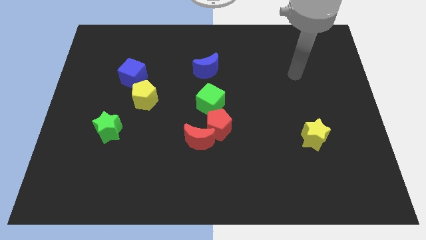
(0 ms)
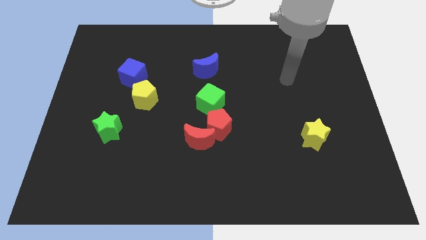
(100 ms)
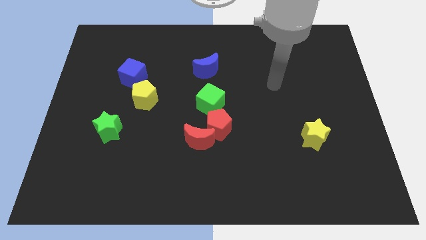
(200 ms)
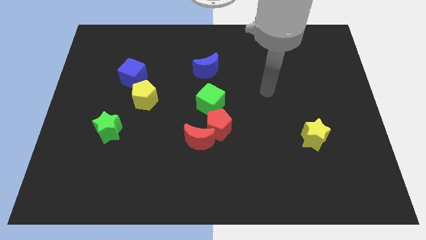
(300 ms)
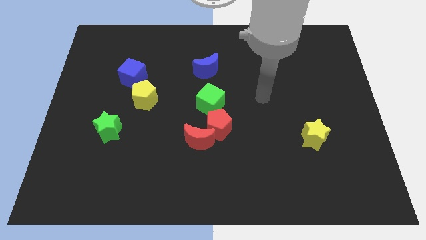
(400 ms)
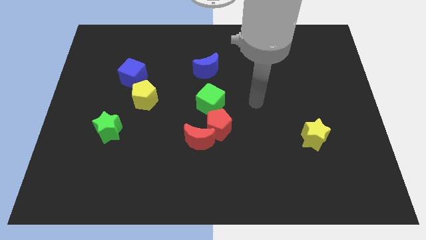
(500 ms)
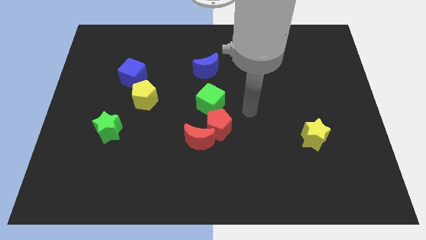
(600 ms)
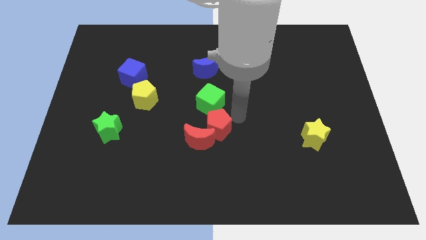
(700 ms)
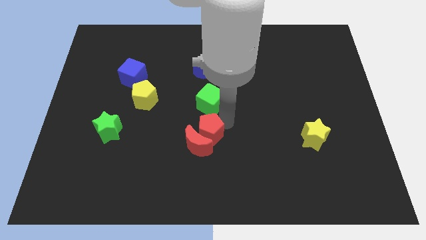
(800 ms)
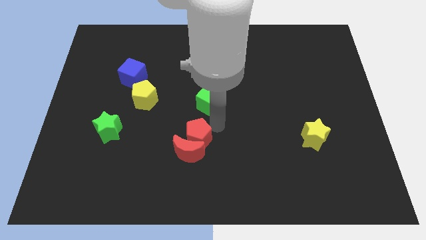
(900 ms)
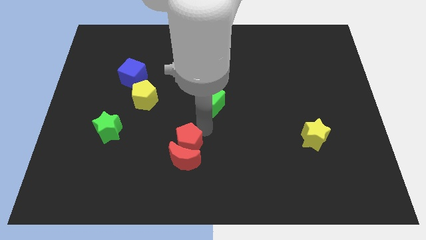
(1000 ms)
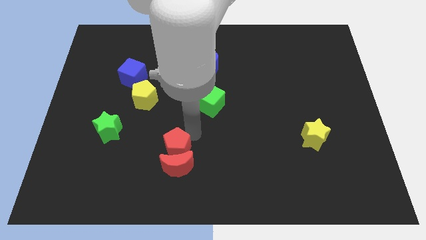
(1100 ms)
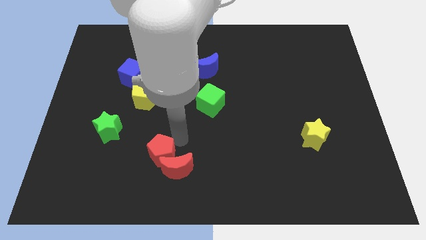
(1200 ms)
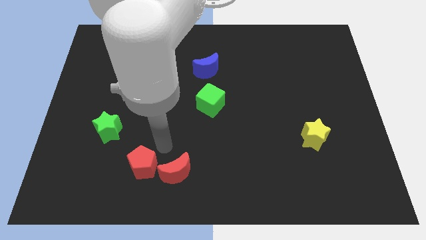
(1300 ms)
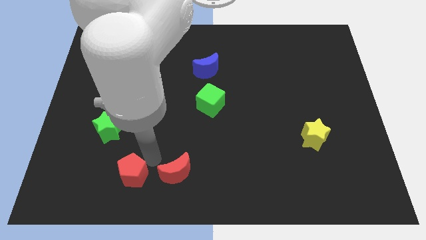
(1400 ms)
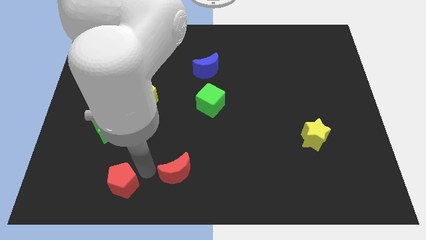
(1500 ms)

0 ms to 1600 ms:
separate the red moon from the red pentagon

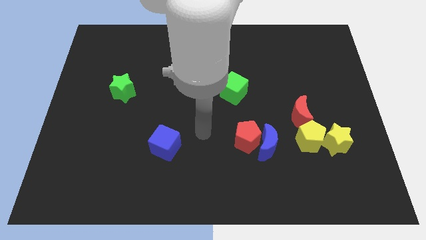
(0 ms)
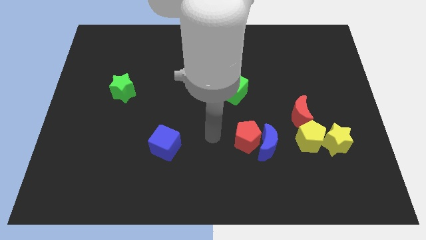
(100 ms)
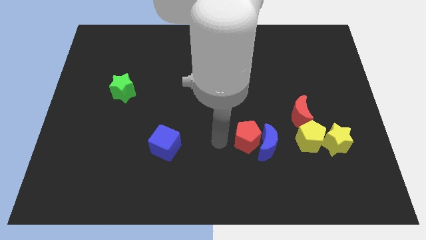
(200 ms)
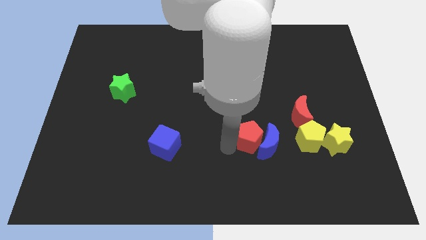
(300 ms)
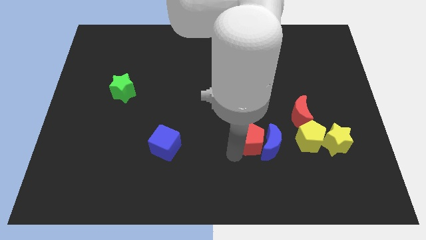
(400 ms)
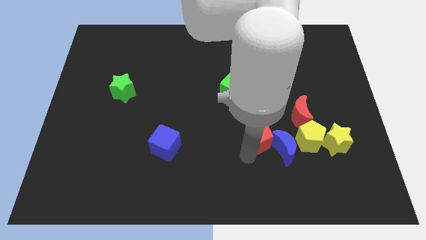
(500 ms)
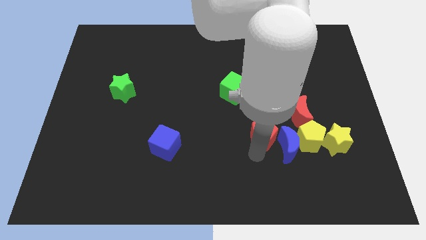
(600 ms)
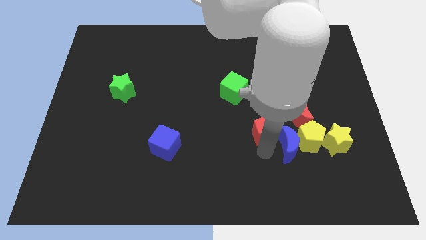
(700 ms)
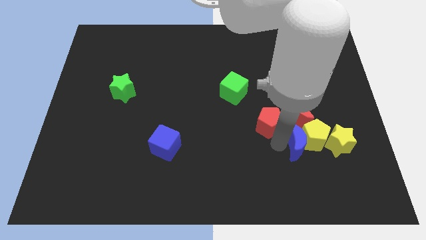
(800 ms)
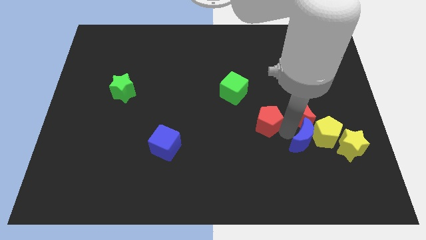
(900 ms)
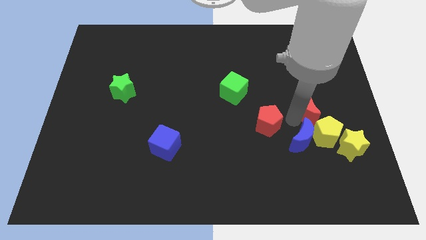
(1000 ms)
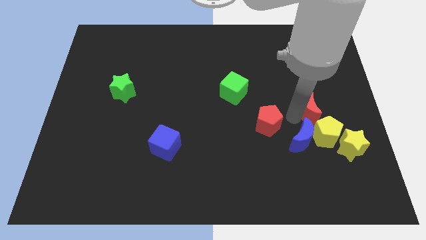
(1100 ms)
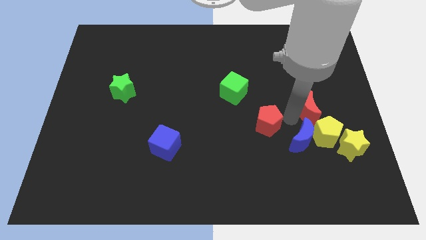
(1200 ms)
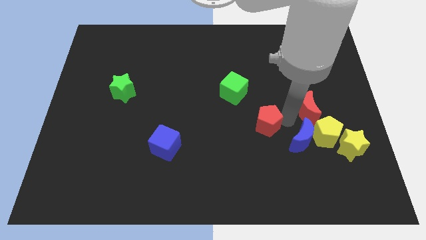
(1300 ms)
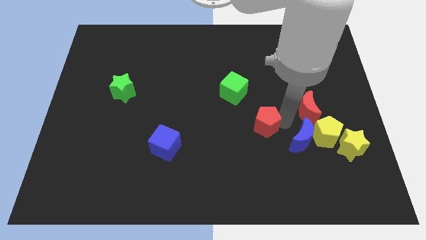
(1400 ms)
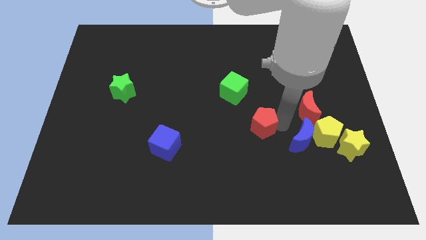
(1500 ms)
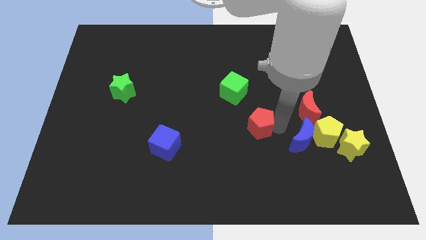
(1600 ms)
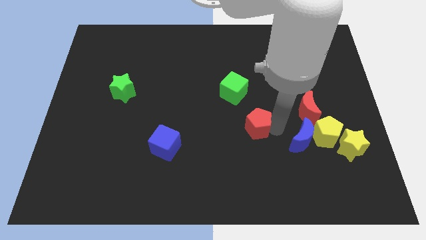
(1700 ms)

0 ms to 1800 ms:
separate the red pentagon from the blue moon

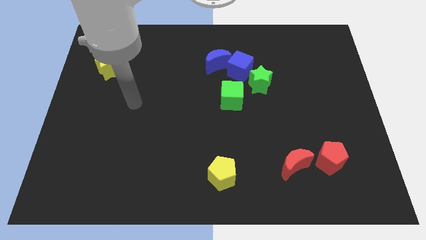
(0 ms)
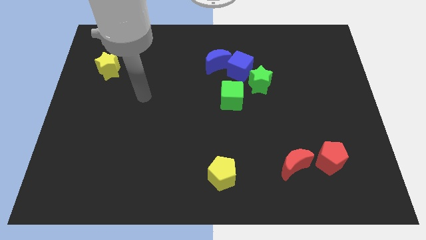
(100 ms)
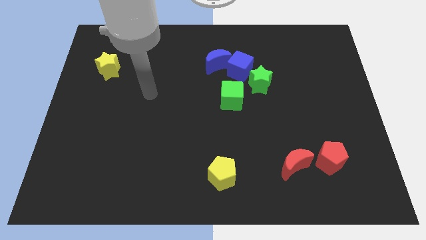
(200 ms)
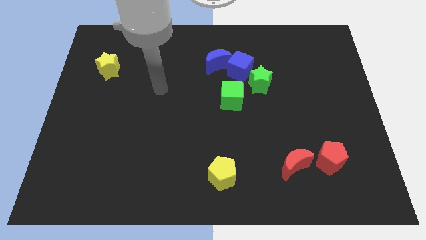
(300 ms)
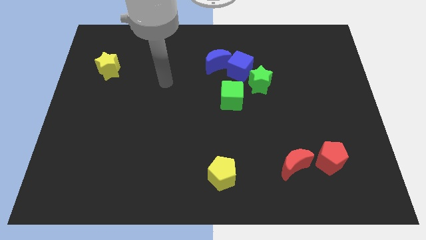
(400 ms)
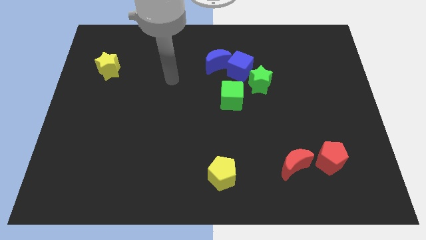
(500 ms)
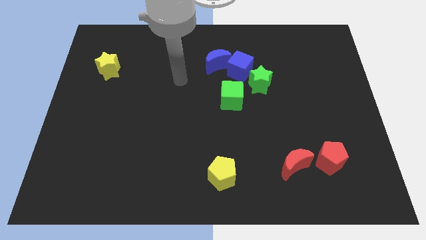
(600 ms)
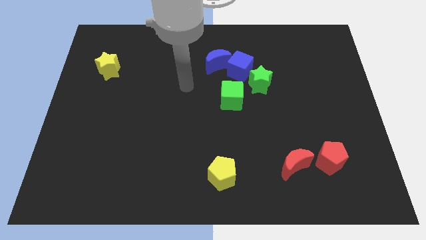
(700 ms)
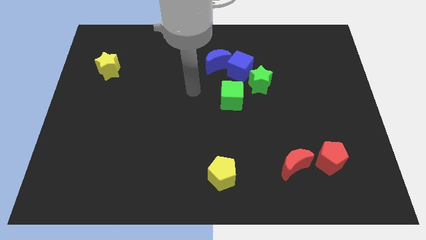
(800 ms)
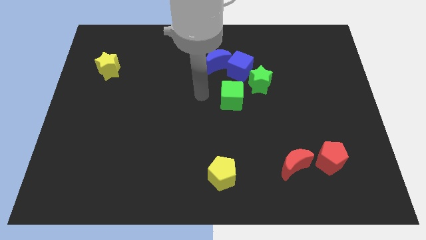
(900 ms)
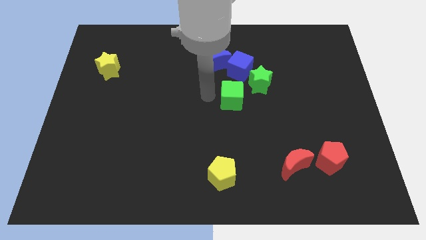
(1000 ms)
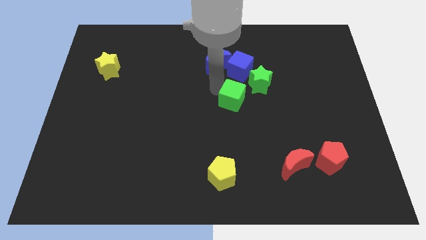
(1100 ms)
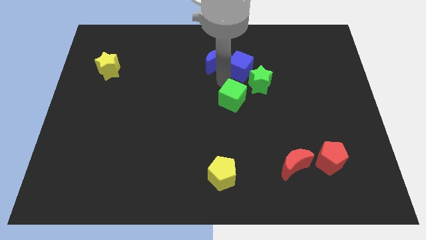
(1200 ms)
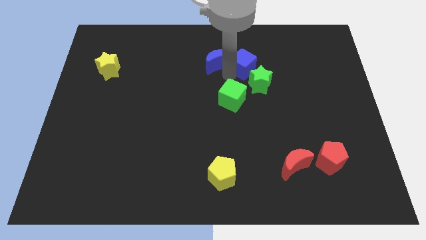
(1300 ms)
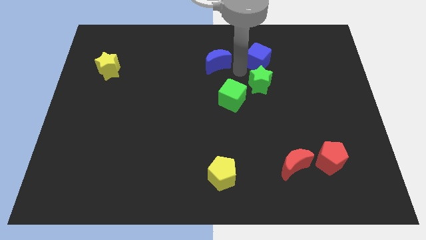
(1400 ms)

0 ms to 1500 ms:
pull the blue moon apart from the blue cube

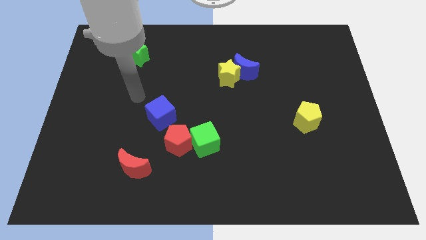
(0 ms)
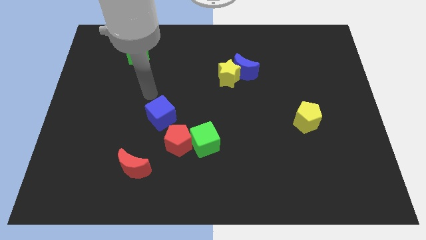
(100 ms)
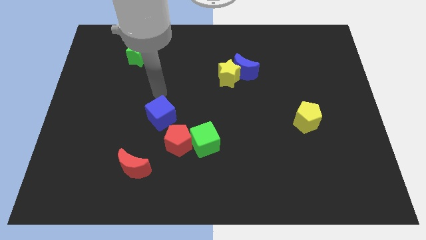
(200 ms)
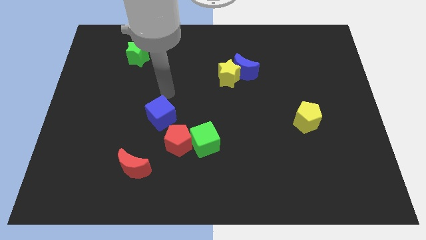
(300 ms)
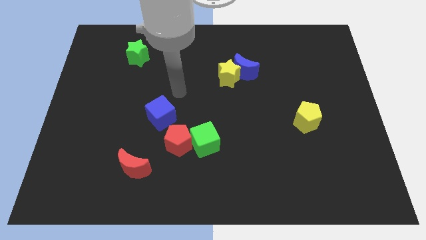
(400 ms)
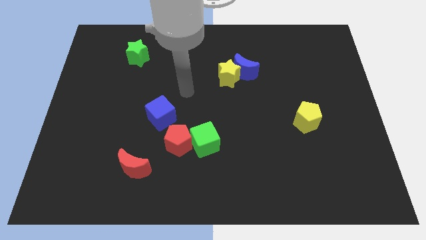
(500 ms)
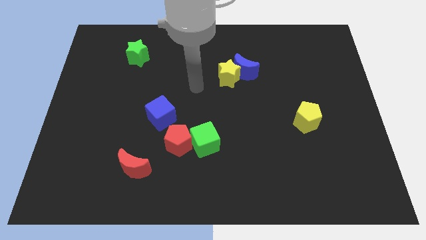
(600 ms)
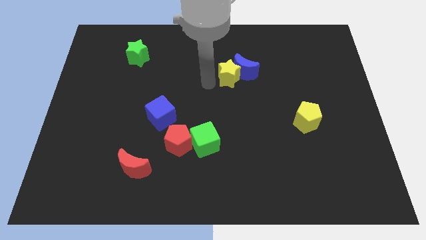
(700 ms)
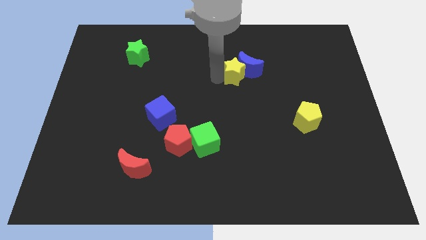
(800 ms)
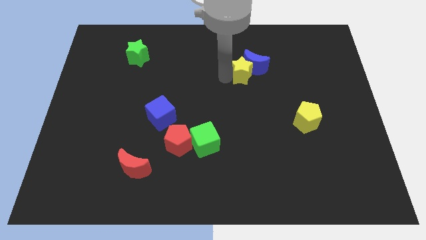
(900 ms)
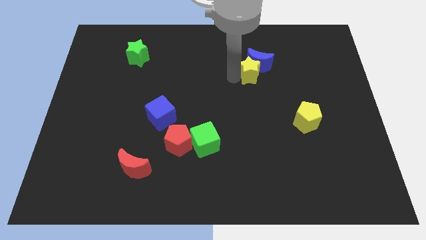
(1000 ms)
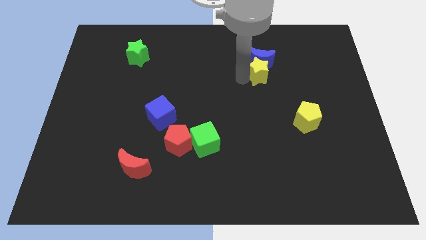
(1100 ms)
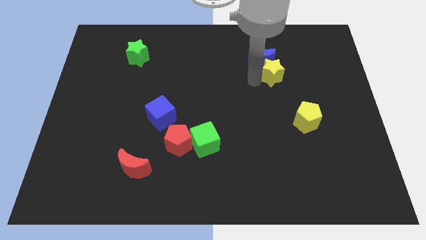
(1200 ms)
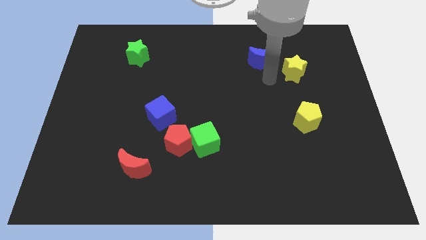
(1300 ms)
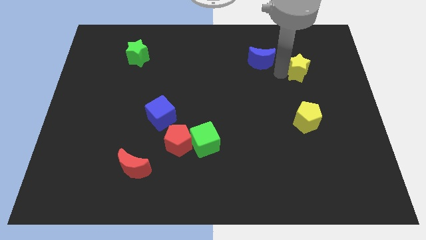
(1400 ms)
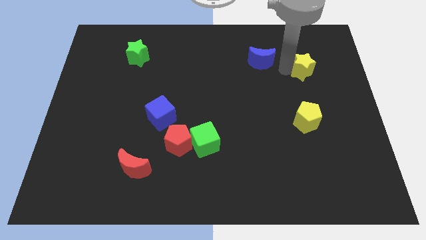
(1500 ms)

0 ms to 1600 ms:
pull the blue moon apart from the yellow star

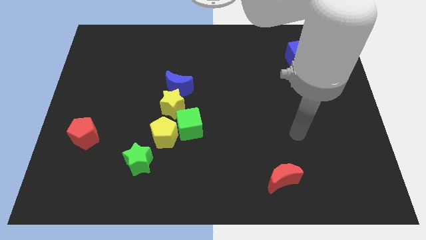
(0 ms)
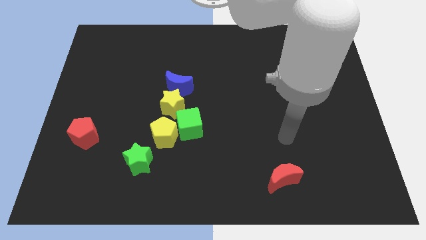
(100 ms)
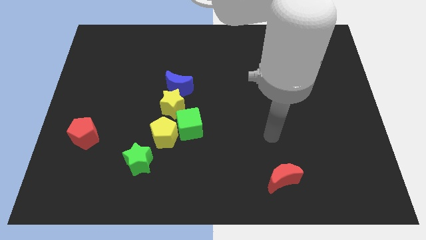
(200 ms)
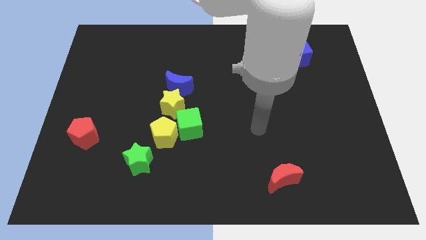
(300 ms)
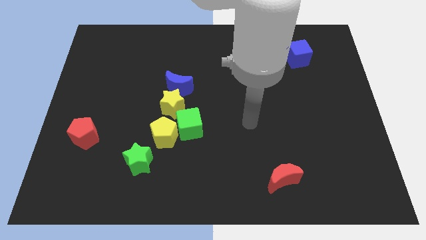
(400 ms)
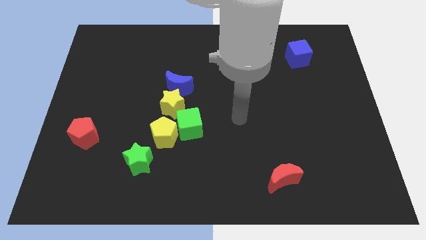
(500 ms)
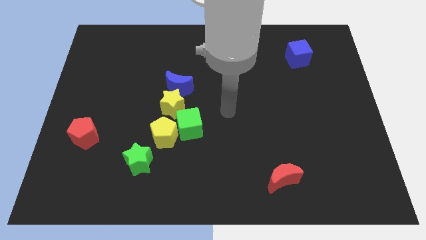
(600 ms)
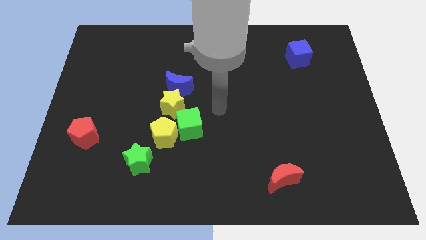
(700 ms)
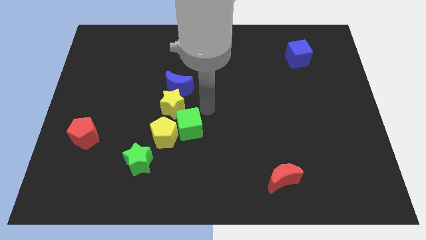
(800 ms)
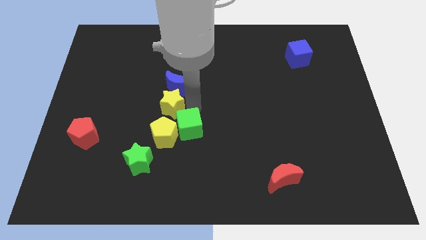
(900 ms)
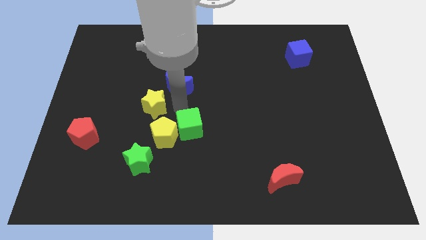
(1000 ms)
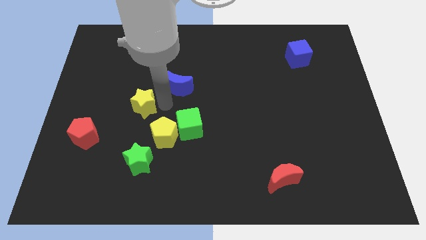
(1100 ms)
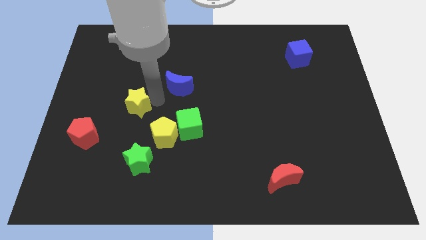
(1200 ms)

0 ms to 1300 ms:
move the blue moon away from the yellow star

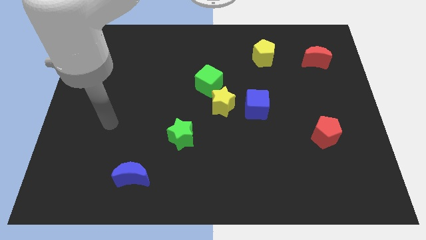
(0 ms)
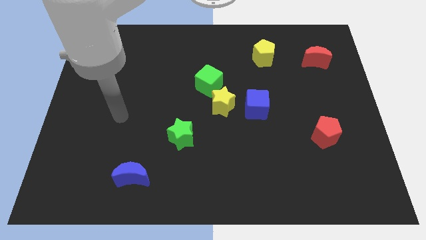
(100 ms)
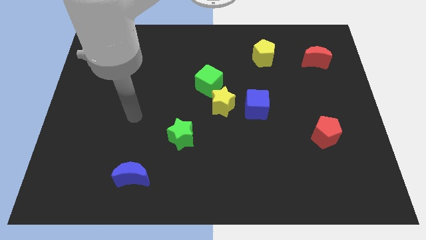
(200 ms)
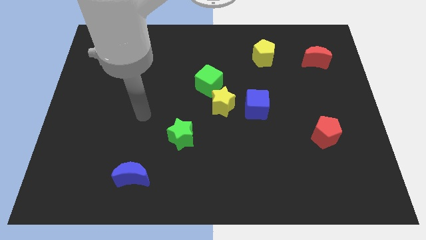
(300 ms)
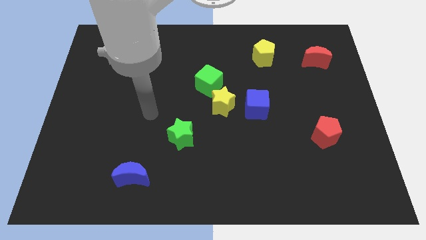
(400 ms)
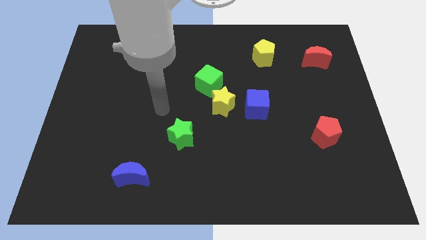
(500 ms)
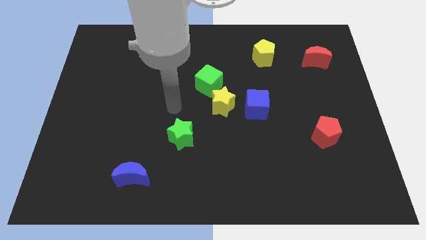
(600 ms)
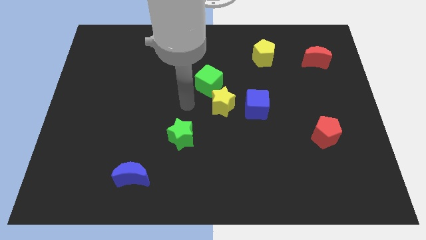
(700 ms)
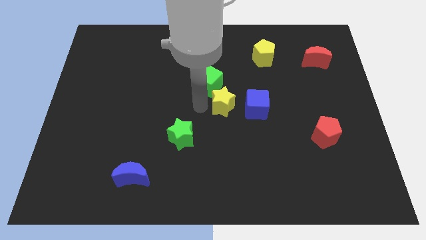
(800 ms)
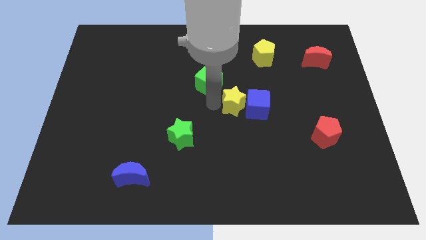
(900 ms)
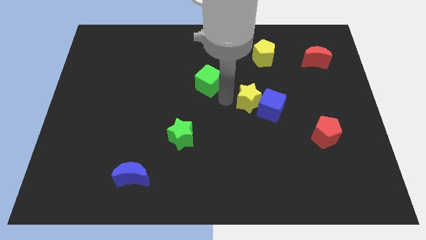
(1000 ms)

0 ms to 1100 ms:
move the green cube away from the yellow star

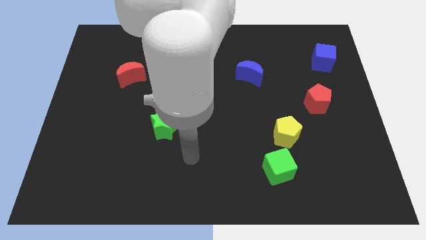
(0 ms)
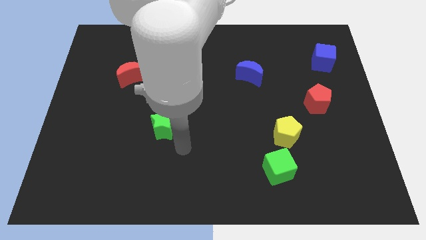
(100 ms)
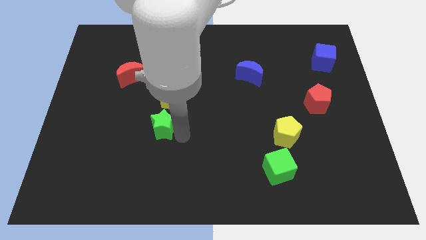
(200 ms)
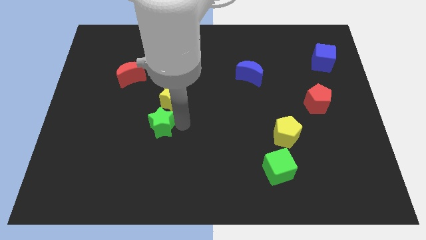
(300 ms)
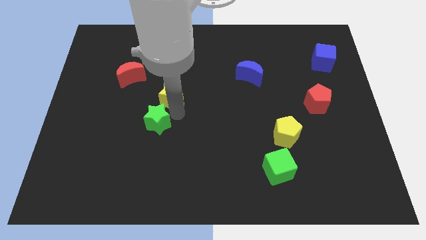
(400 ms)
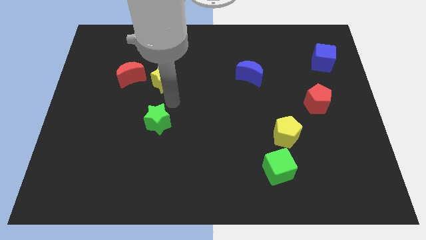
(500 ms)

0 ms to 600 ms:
separate the green star from the yellow star

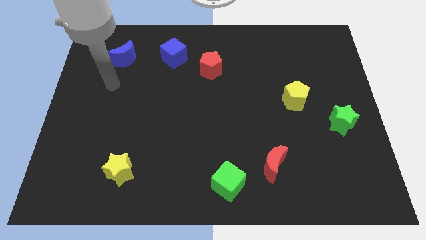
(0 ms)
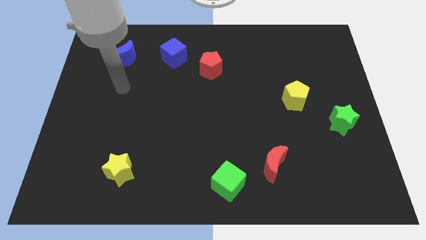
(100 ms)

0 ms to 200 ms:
pull the red moon apart from the green cube
